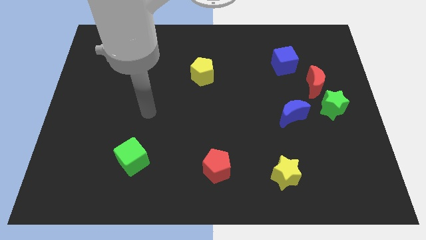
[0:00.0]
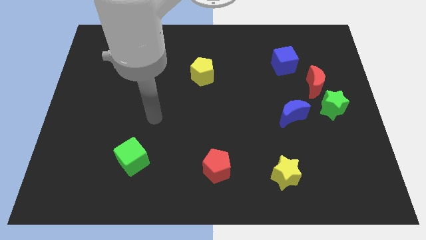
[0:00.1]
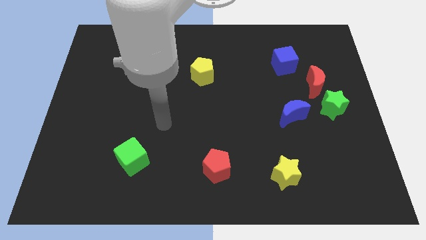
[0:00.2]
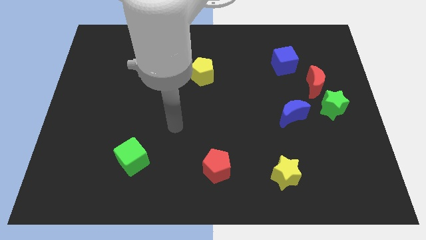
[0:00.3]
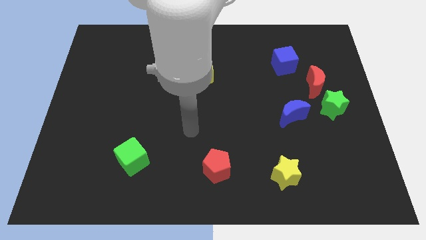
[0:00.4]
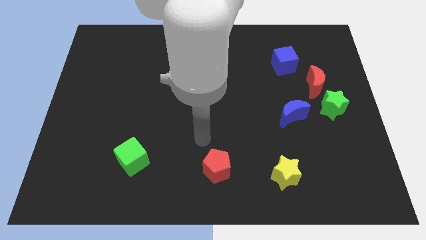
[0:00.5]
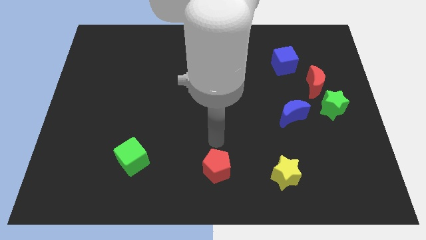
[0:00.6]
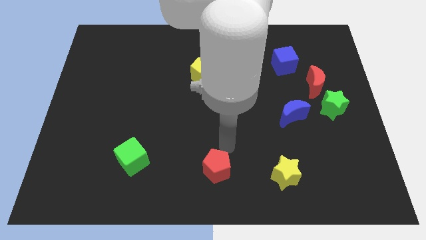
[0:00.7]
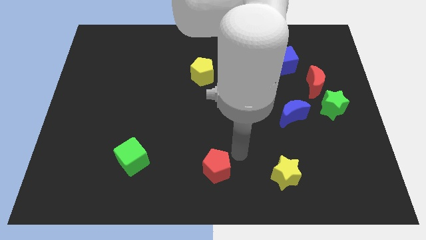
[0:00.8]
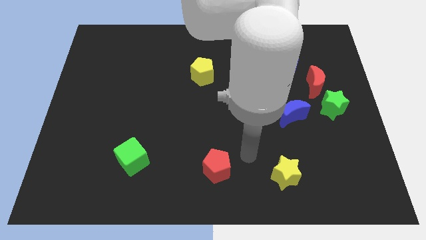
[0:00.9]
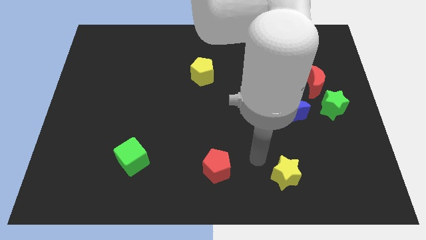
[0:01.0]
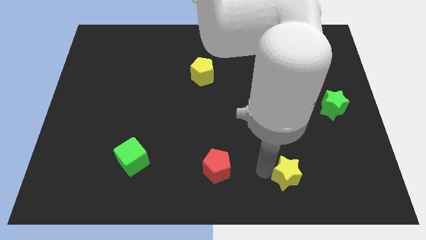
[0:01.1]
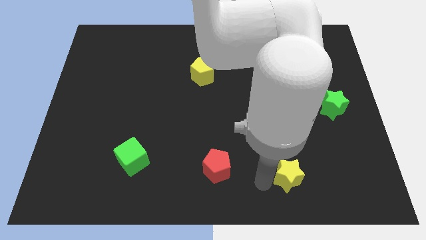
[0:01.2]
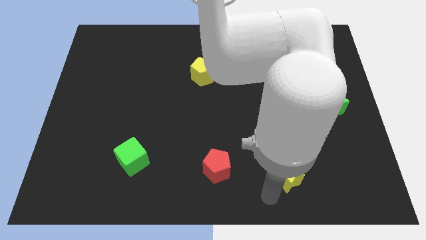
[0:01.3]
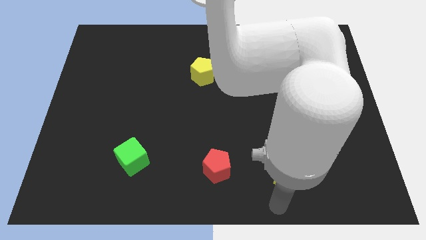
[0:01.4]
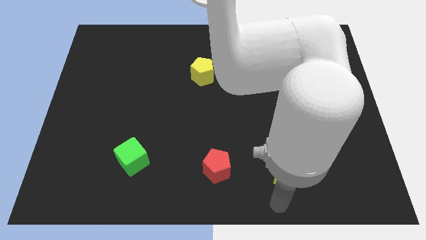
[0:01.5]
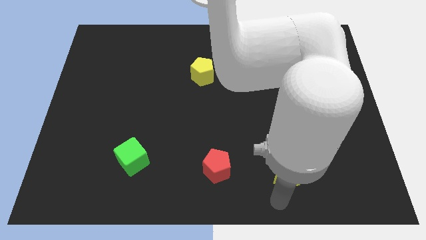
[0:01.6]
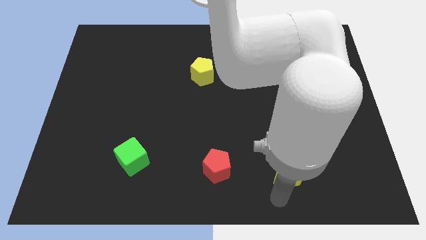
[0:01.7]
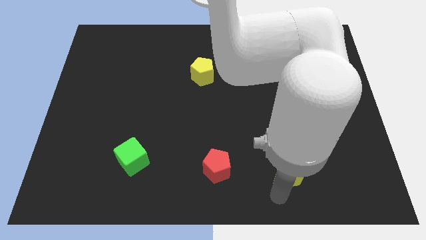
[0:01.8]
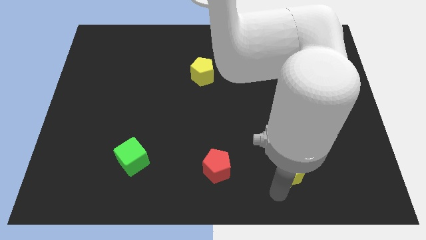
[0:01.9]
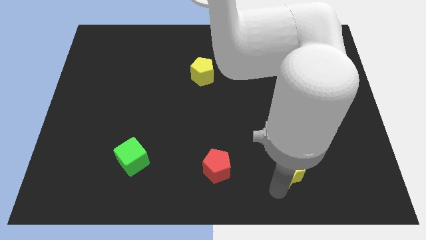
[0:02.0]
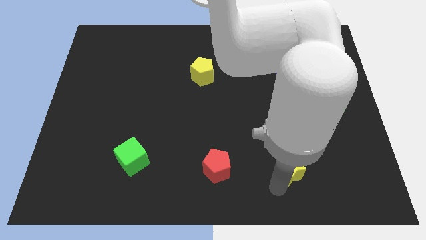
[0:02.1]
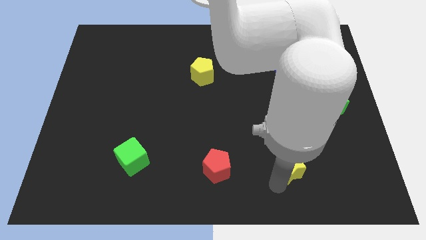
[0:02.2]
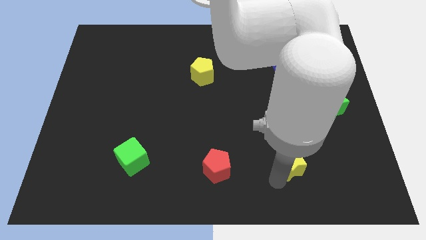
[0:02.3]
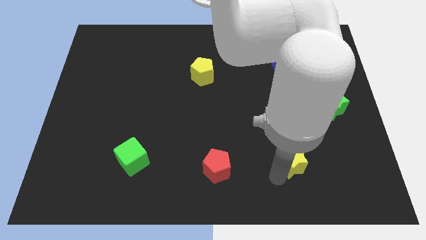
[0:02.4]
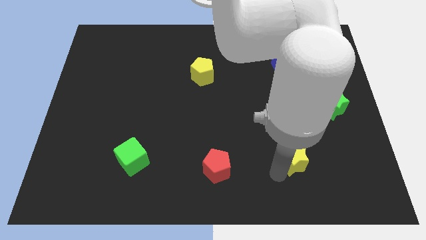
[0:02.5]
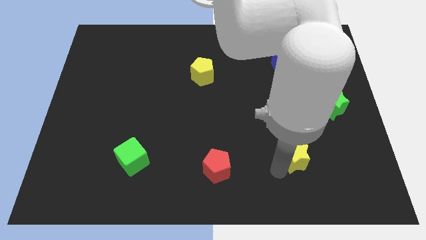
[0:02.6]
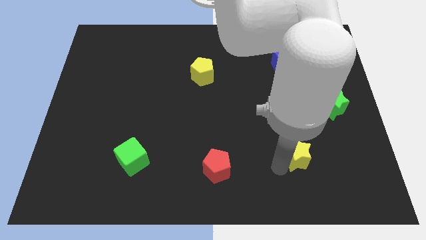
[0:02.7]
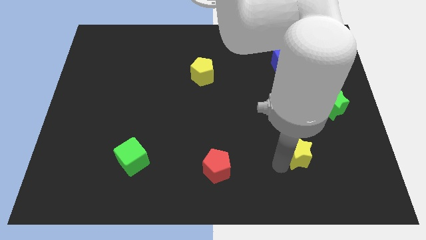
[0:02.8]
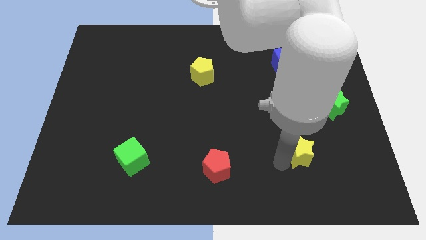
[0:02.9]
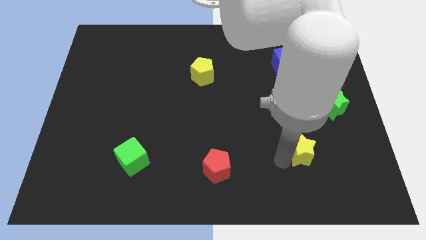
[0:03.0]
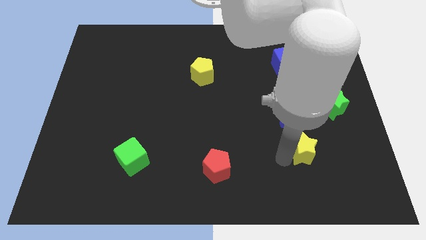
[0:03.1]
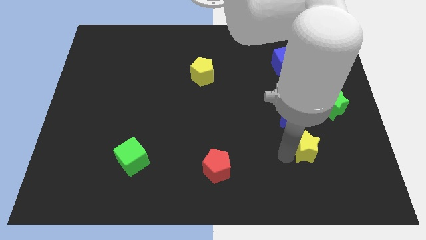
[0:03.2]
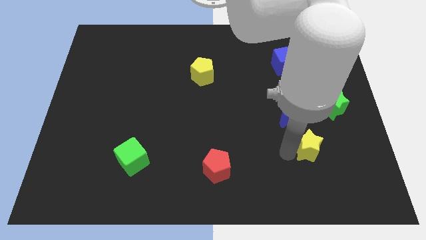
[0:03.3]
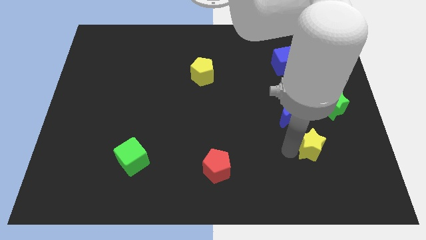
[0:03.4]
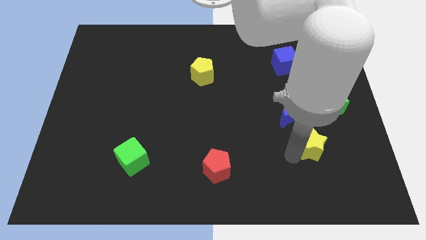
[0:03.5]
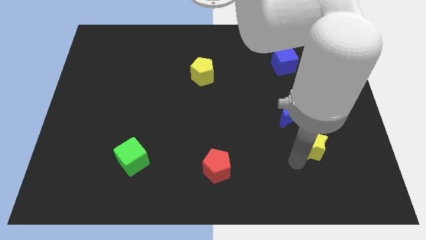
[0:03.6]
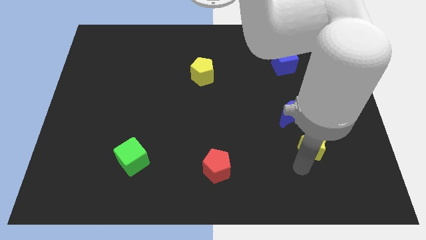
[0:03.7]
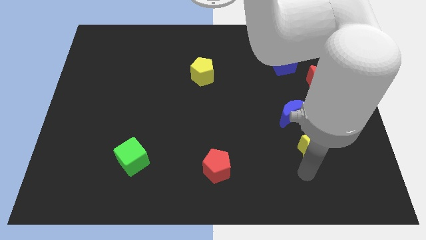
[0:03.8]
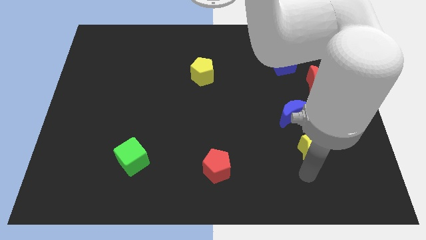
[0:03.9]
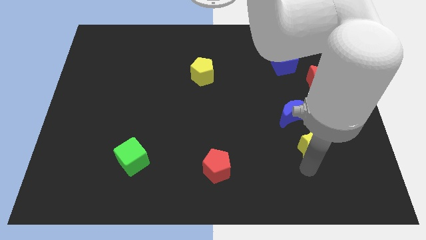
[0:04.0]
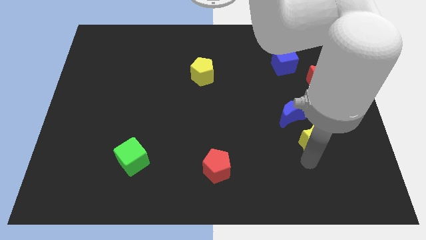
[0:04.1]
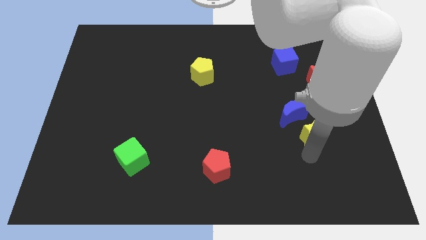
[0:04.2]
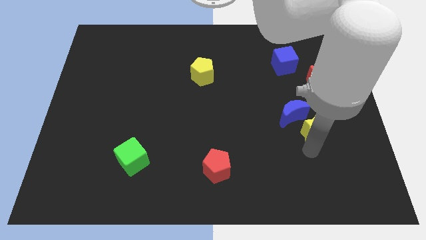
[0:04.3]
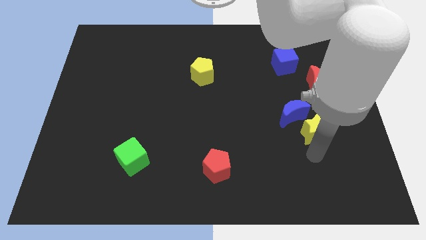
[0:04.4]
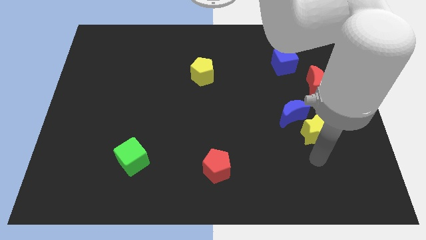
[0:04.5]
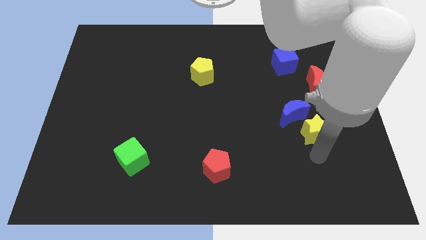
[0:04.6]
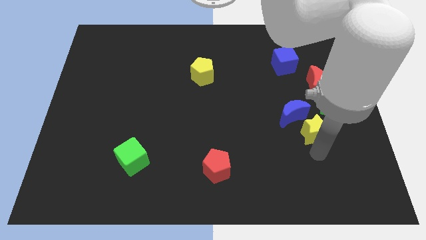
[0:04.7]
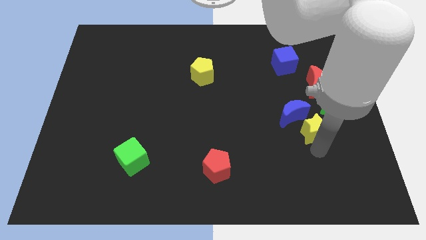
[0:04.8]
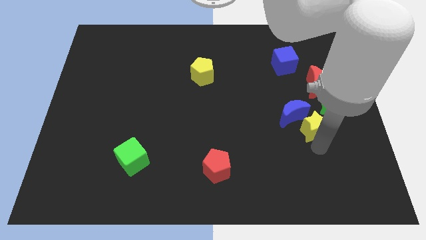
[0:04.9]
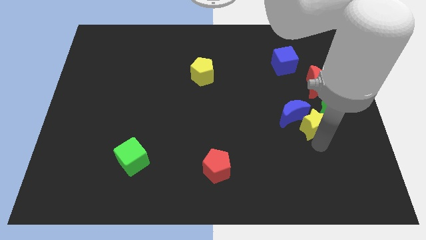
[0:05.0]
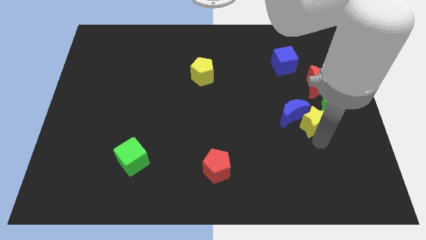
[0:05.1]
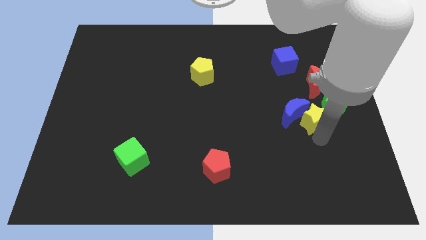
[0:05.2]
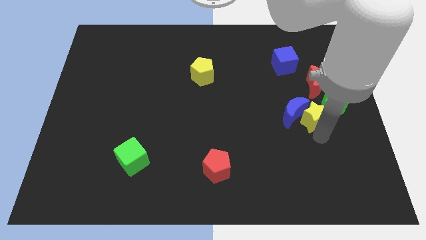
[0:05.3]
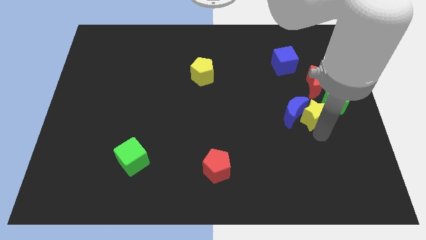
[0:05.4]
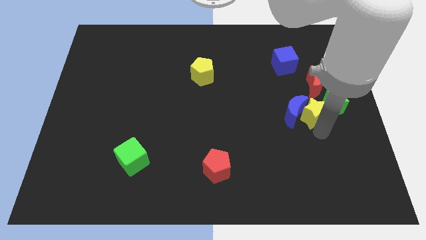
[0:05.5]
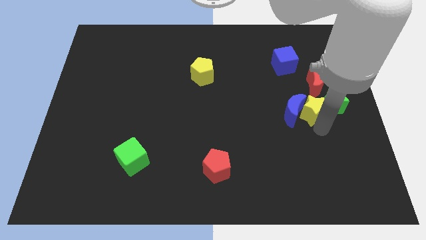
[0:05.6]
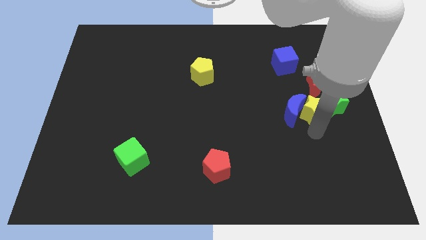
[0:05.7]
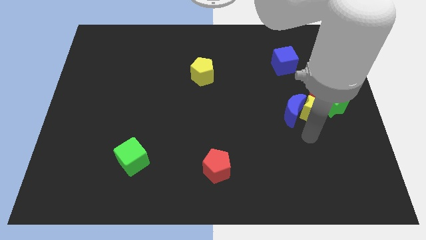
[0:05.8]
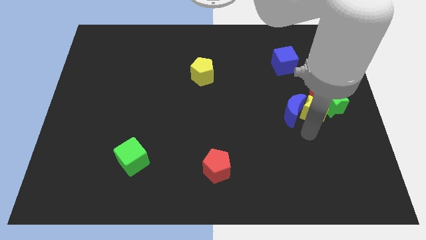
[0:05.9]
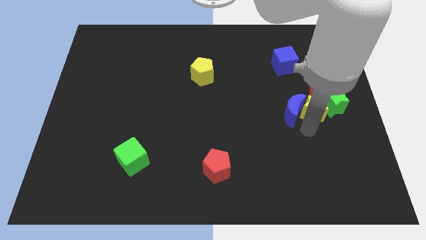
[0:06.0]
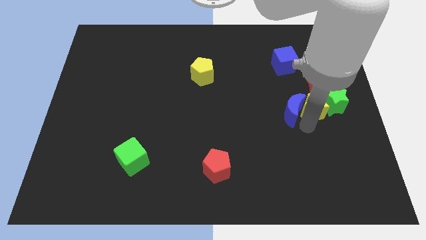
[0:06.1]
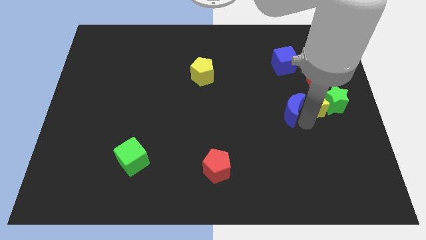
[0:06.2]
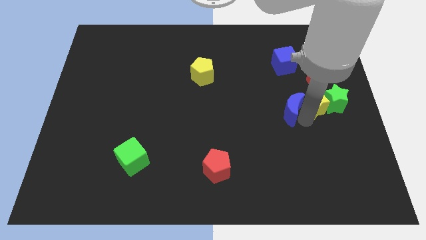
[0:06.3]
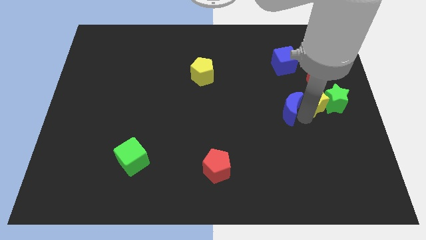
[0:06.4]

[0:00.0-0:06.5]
push the yellow star towards the red moon

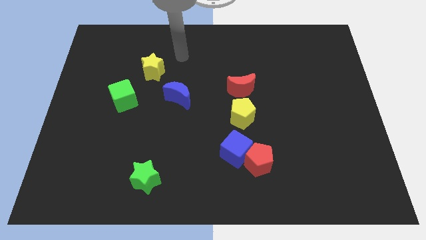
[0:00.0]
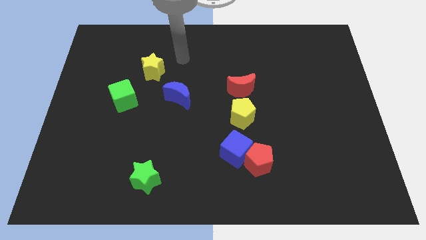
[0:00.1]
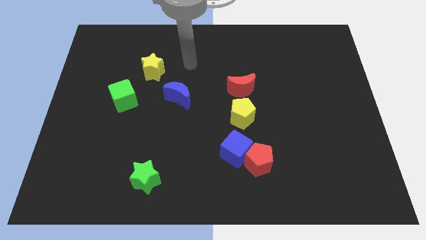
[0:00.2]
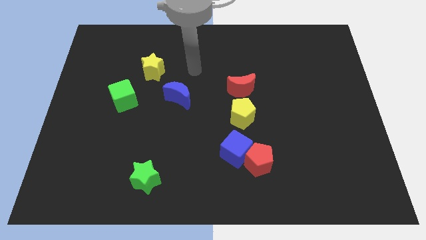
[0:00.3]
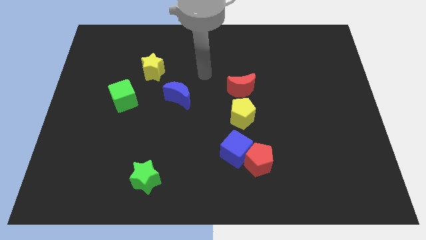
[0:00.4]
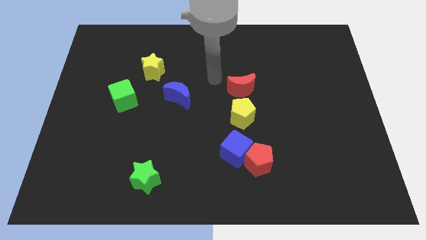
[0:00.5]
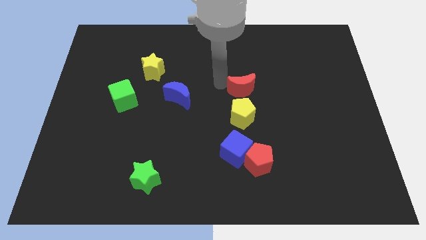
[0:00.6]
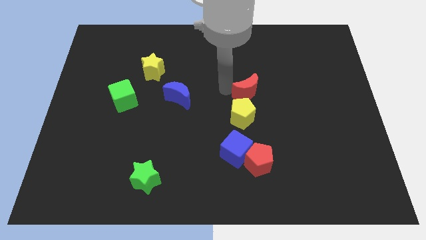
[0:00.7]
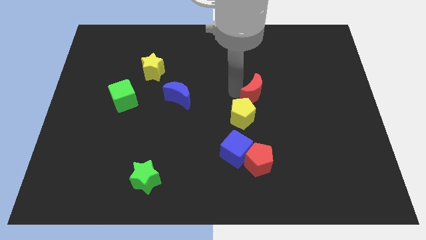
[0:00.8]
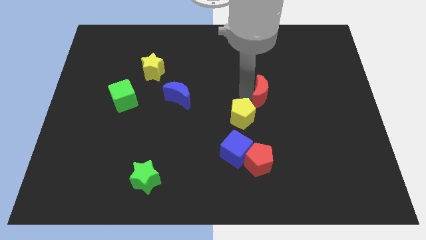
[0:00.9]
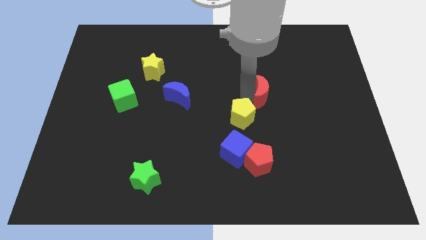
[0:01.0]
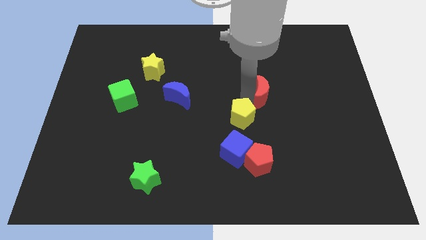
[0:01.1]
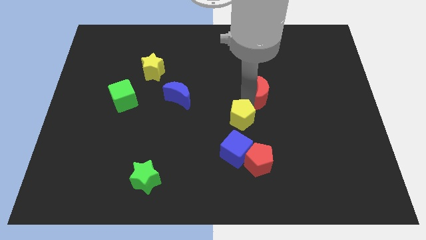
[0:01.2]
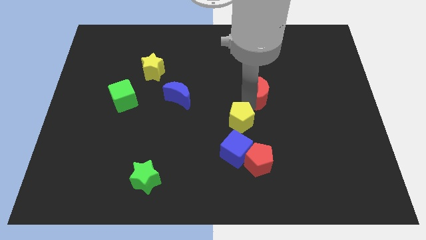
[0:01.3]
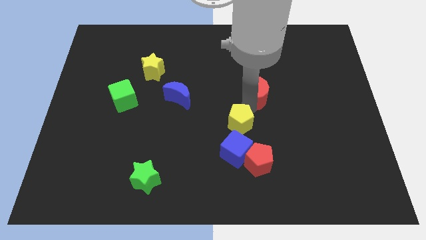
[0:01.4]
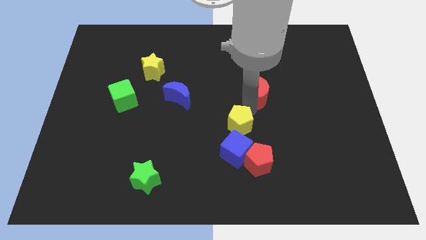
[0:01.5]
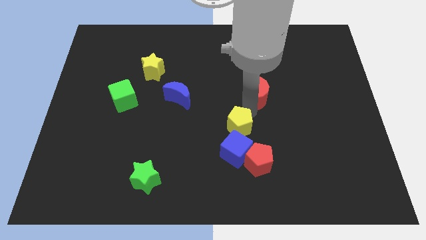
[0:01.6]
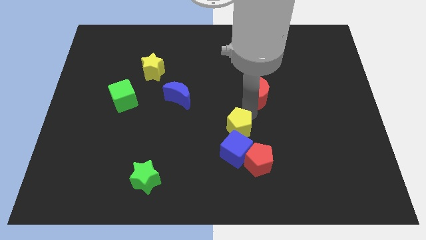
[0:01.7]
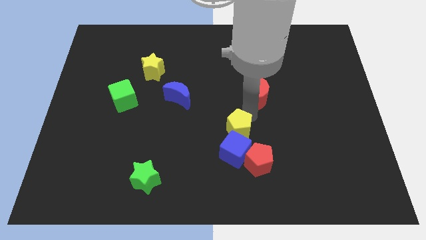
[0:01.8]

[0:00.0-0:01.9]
move the yellow pentagon close to the blue cube
